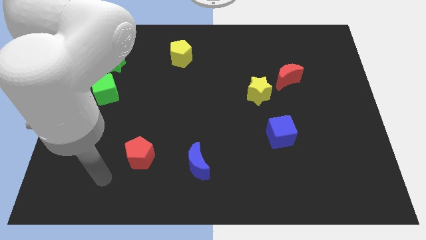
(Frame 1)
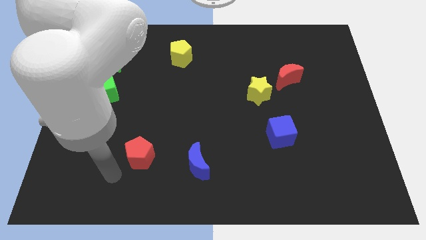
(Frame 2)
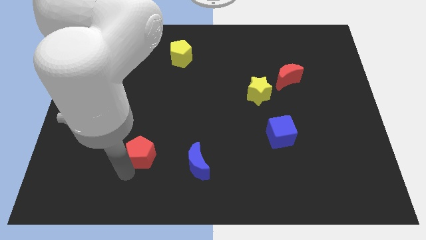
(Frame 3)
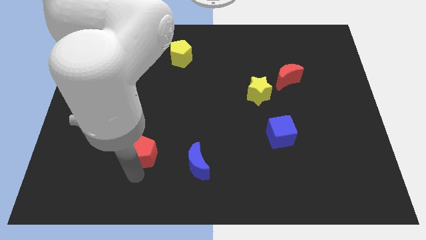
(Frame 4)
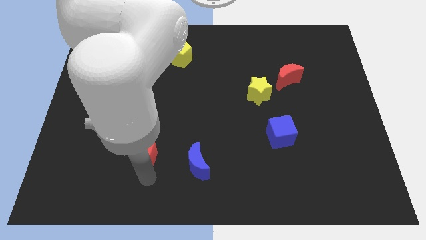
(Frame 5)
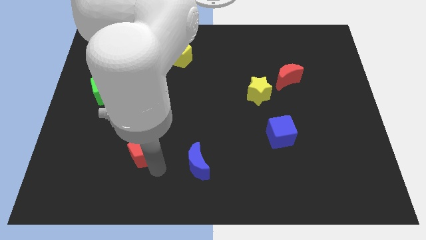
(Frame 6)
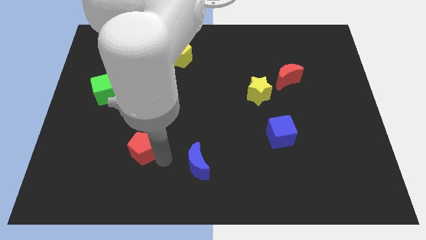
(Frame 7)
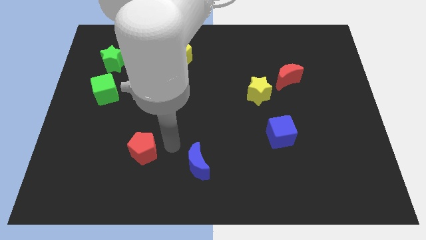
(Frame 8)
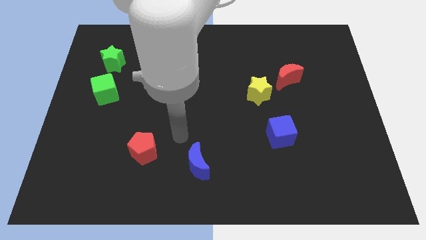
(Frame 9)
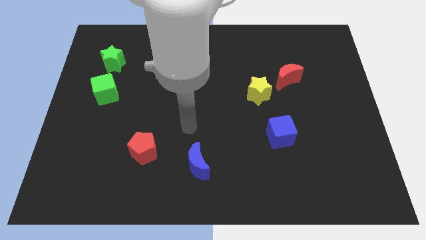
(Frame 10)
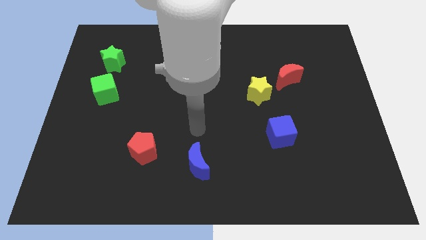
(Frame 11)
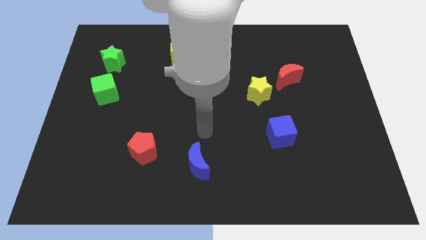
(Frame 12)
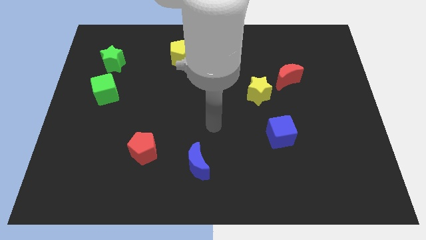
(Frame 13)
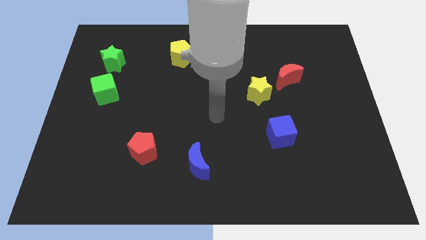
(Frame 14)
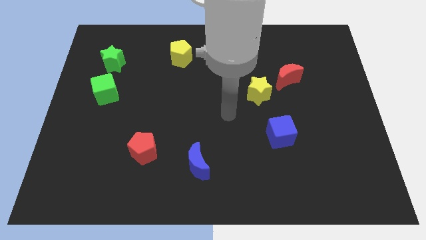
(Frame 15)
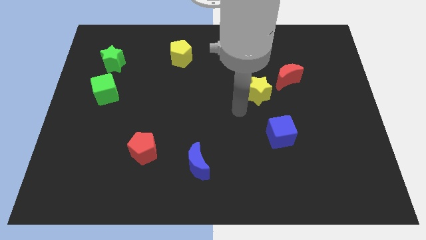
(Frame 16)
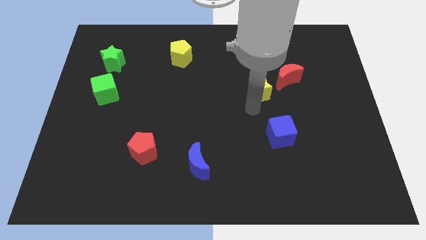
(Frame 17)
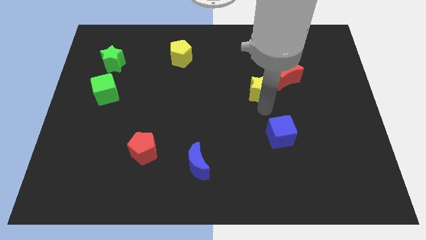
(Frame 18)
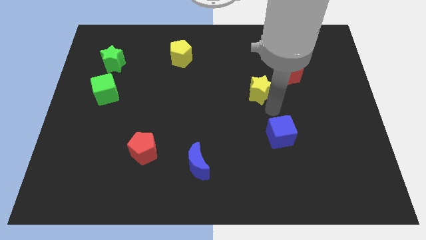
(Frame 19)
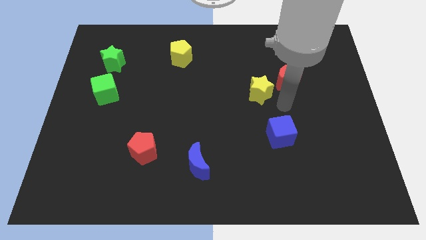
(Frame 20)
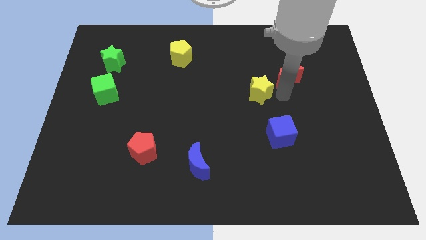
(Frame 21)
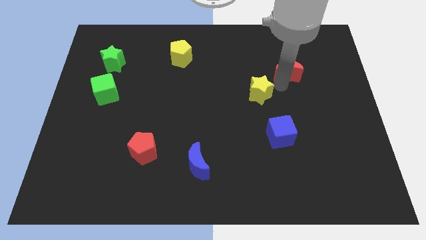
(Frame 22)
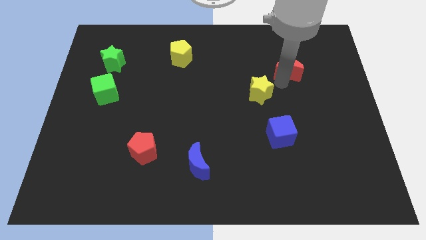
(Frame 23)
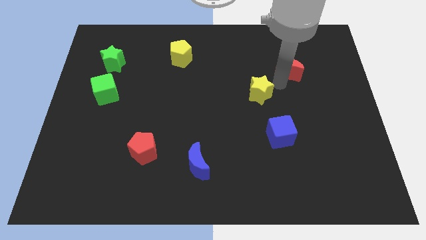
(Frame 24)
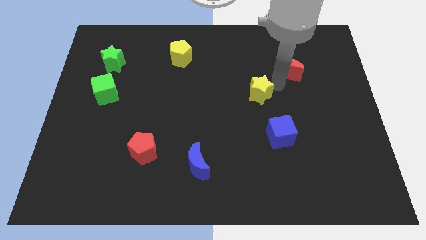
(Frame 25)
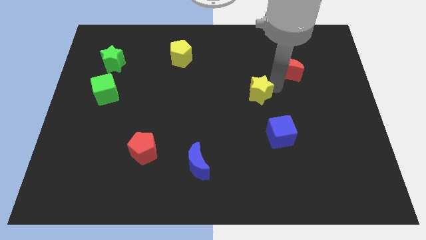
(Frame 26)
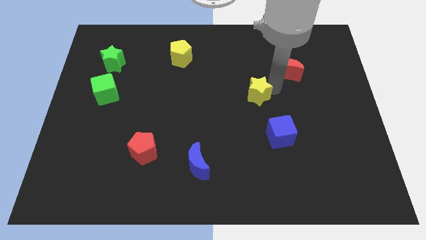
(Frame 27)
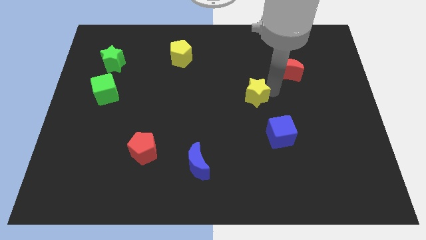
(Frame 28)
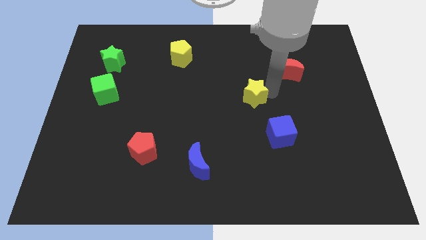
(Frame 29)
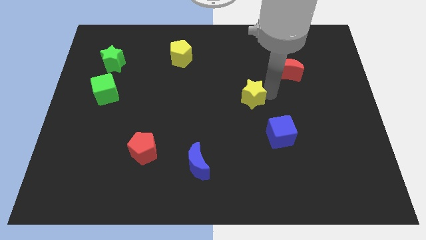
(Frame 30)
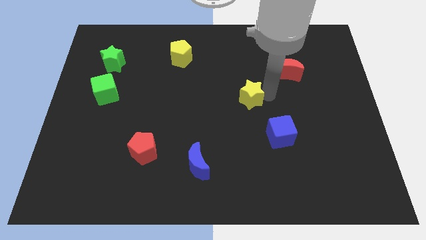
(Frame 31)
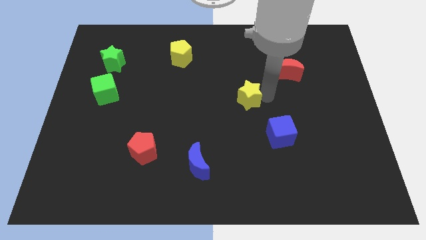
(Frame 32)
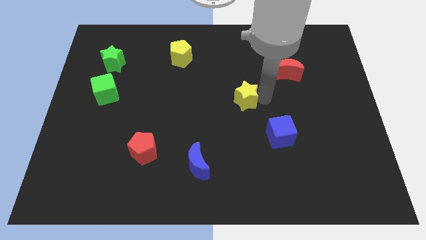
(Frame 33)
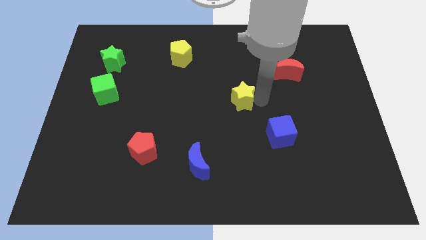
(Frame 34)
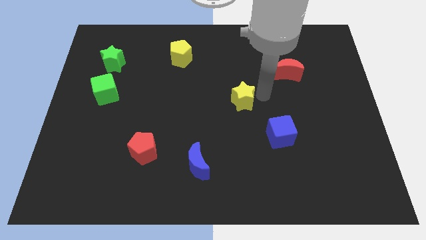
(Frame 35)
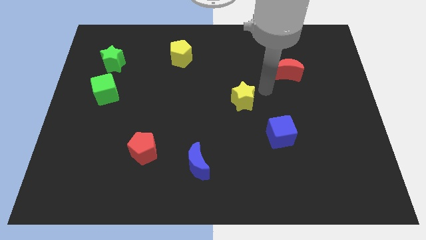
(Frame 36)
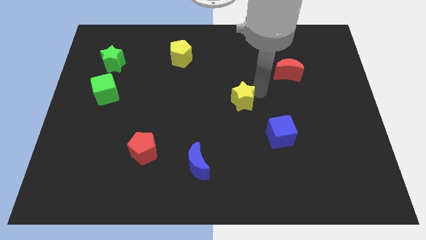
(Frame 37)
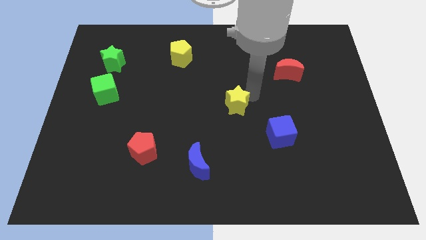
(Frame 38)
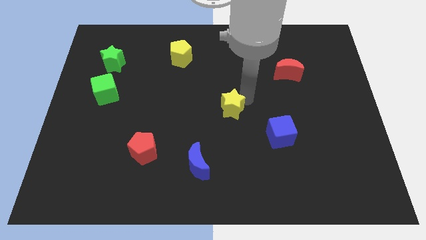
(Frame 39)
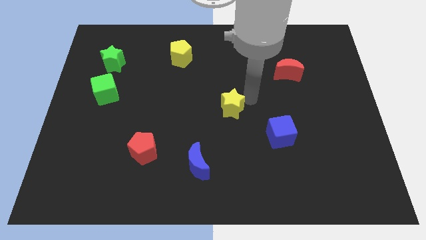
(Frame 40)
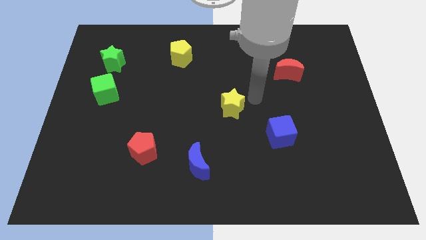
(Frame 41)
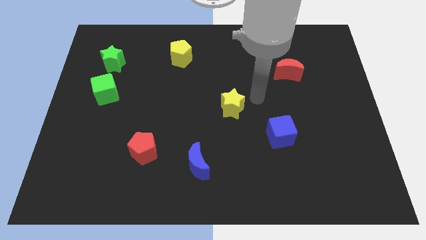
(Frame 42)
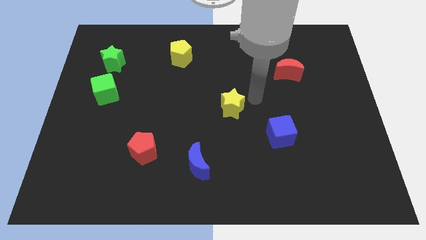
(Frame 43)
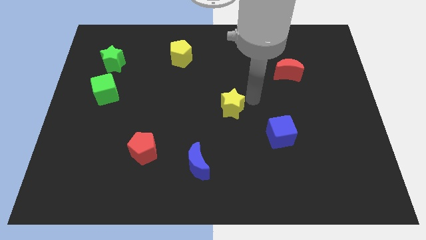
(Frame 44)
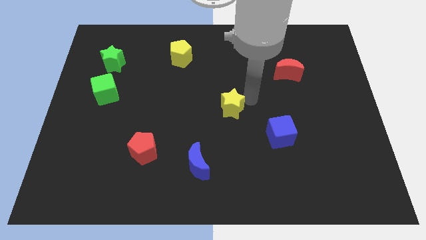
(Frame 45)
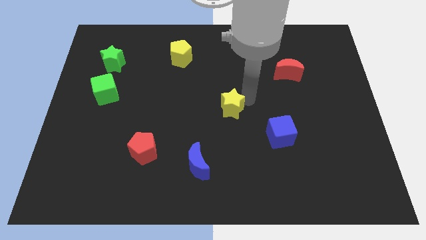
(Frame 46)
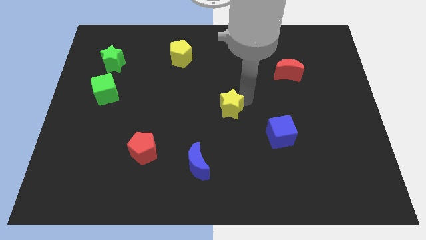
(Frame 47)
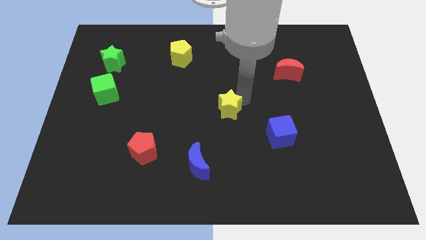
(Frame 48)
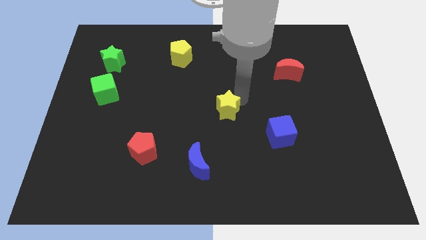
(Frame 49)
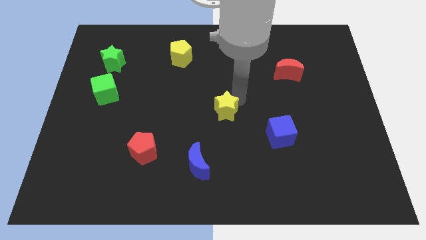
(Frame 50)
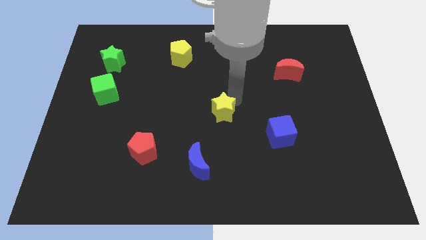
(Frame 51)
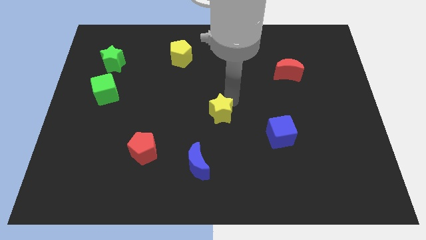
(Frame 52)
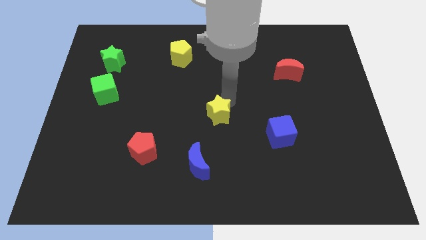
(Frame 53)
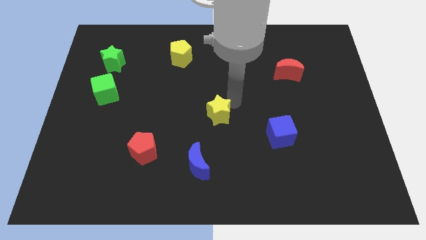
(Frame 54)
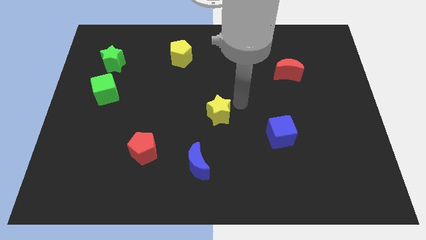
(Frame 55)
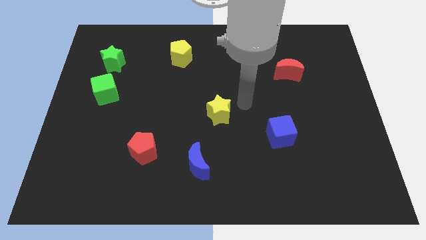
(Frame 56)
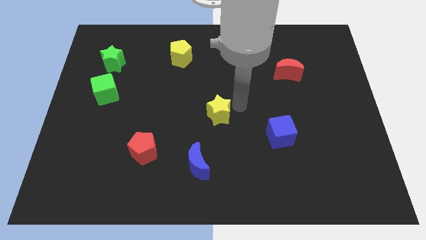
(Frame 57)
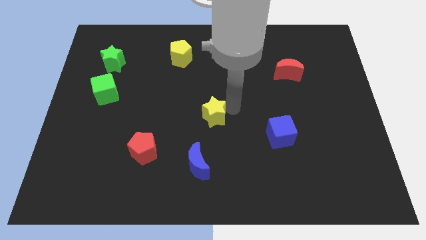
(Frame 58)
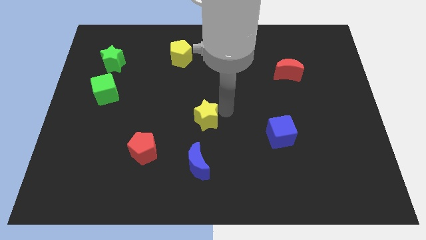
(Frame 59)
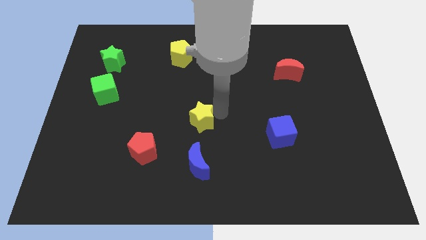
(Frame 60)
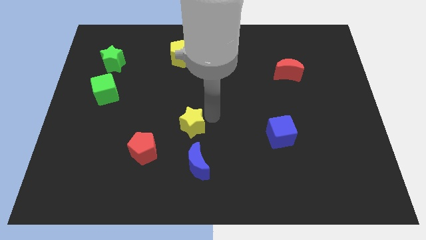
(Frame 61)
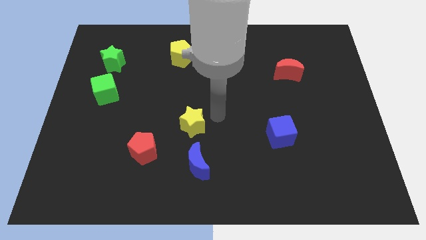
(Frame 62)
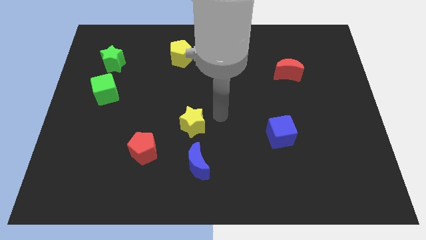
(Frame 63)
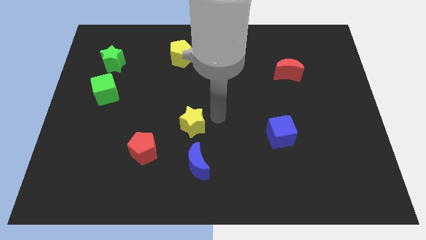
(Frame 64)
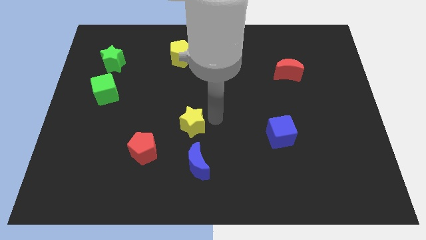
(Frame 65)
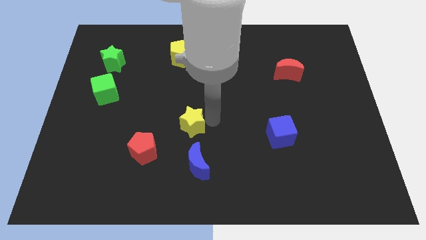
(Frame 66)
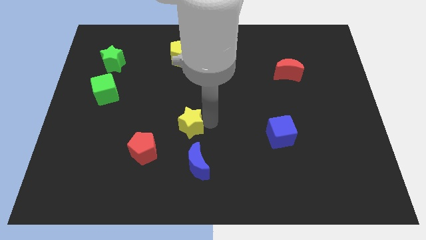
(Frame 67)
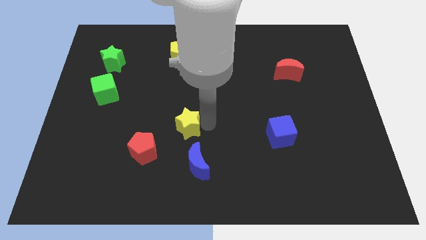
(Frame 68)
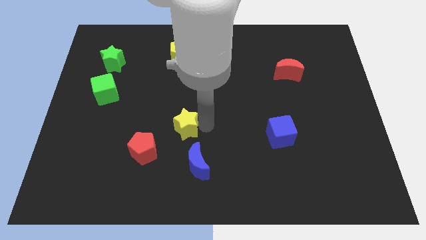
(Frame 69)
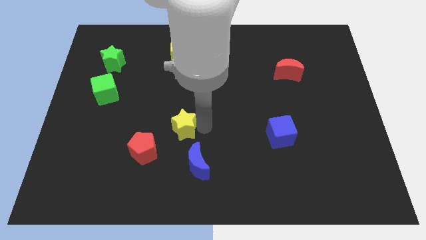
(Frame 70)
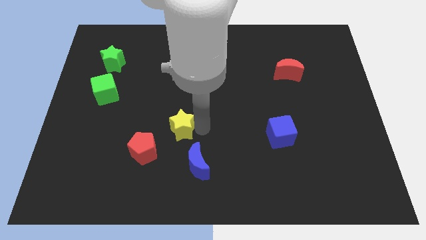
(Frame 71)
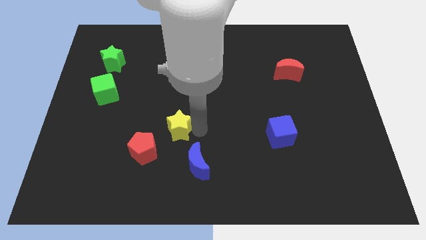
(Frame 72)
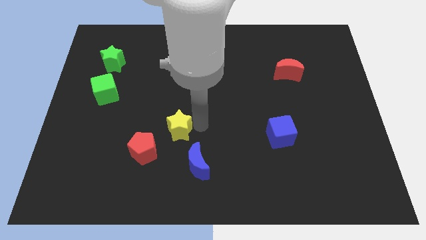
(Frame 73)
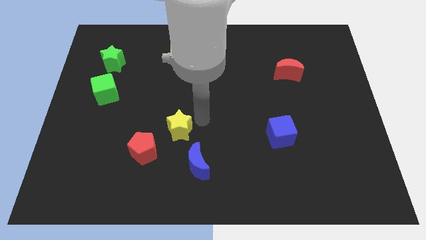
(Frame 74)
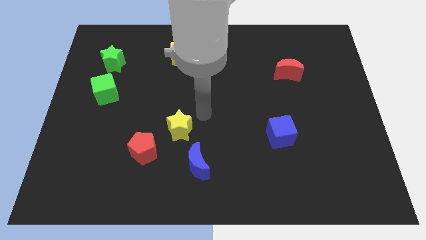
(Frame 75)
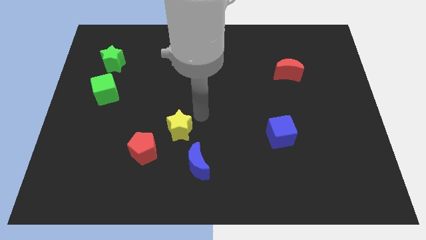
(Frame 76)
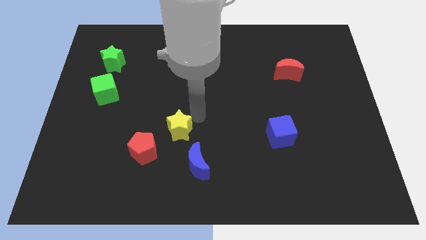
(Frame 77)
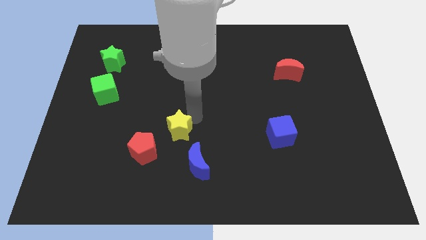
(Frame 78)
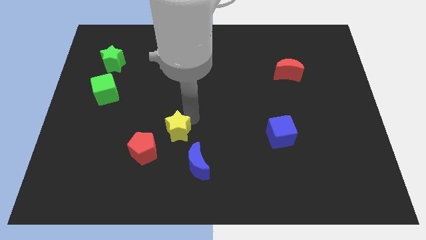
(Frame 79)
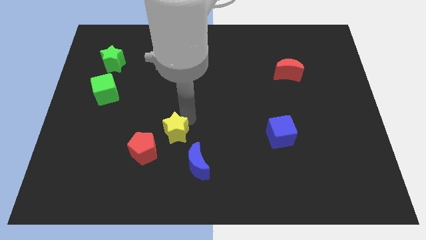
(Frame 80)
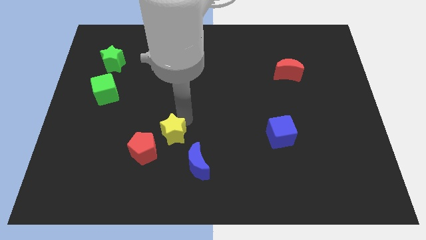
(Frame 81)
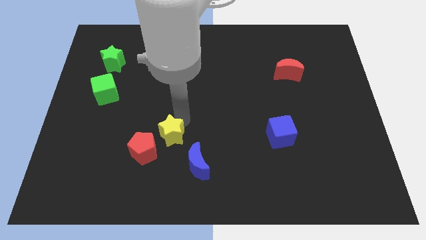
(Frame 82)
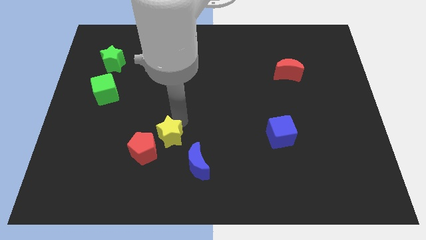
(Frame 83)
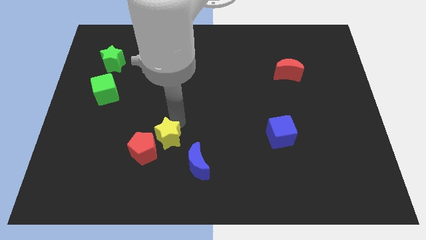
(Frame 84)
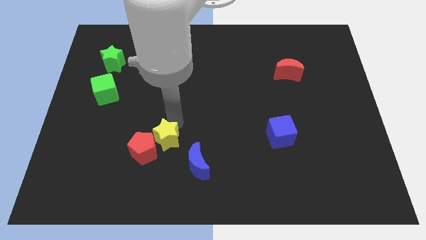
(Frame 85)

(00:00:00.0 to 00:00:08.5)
put the yellow star close to the red pentagon
